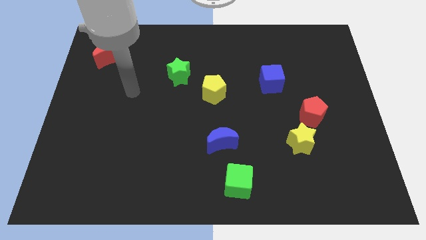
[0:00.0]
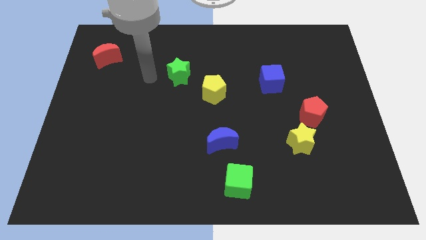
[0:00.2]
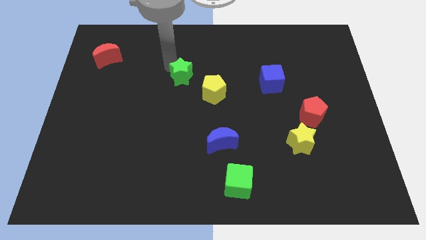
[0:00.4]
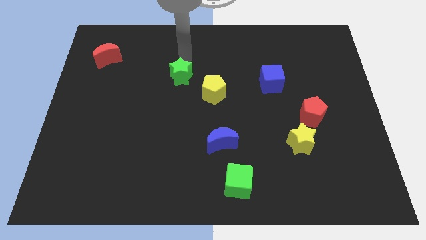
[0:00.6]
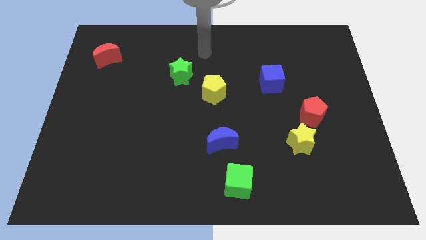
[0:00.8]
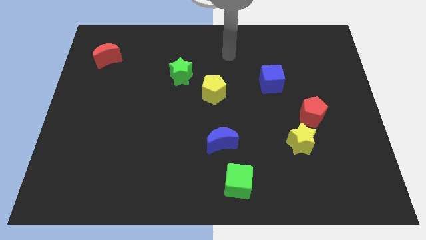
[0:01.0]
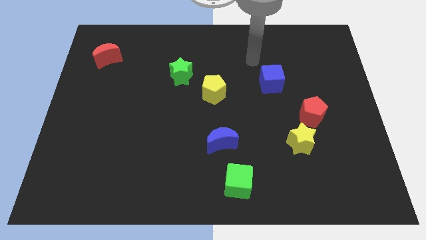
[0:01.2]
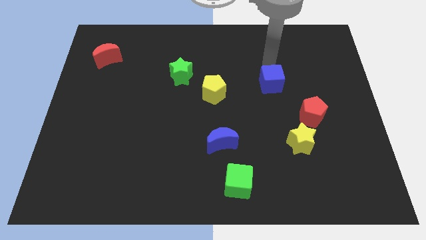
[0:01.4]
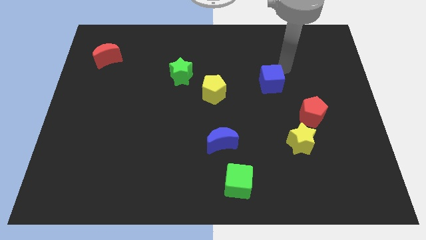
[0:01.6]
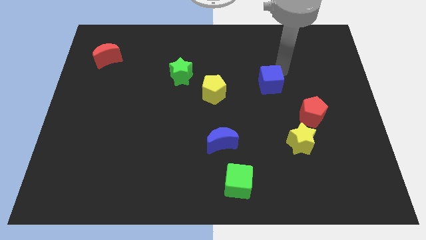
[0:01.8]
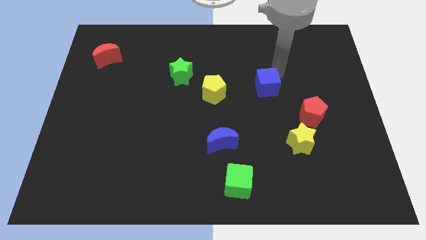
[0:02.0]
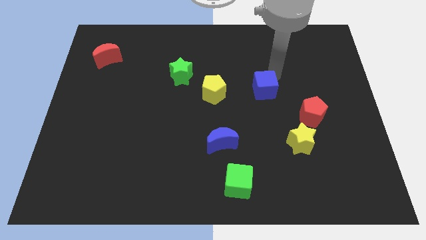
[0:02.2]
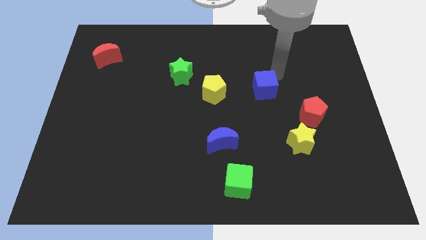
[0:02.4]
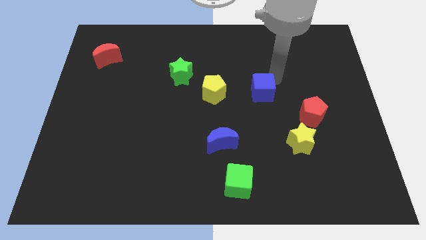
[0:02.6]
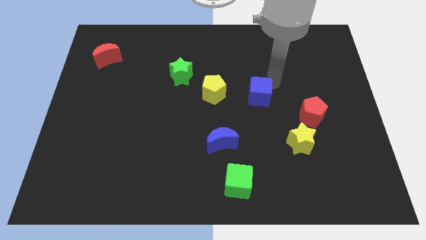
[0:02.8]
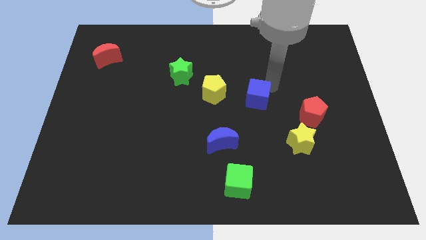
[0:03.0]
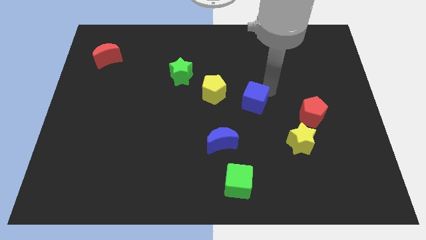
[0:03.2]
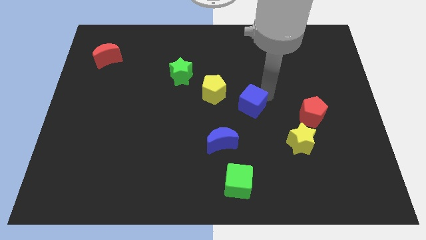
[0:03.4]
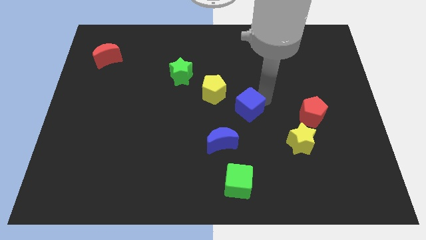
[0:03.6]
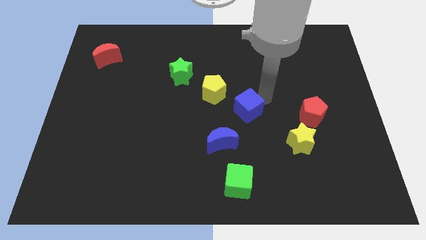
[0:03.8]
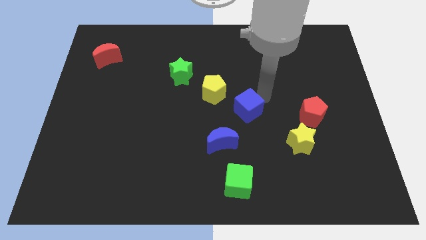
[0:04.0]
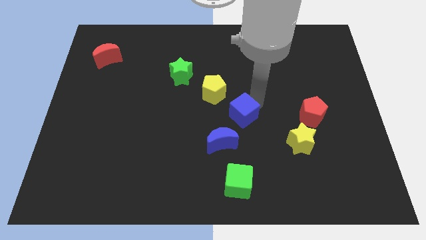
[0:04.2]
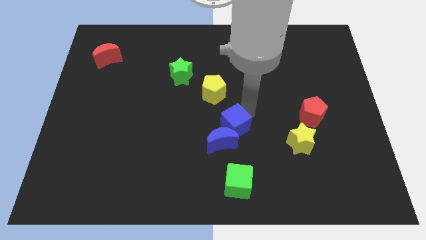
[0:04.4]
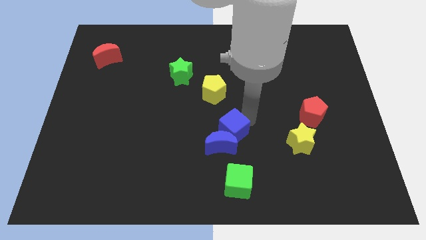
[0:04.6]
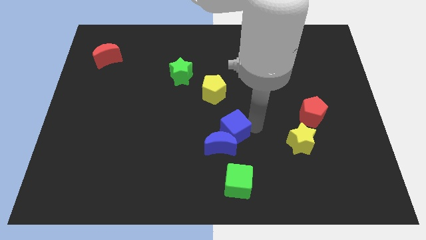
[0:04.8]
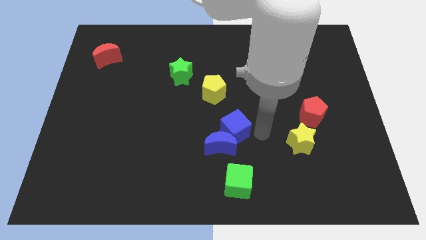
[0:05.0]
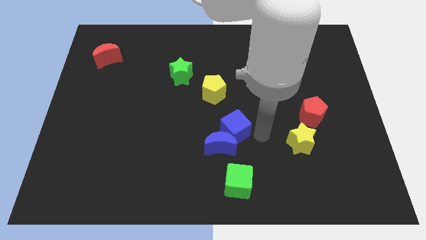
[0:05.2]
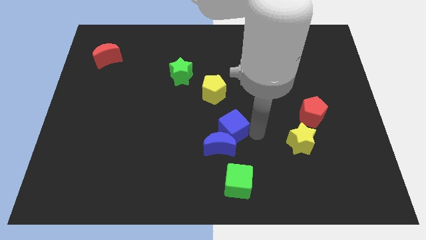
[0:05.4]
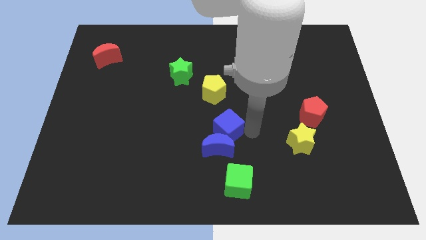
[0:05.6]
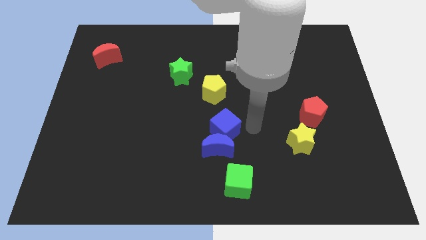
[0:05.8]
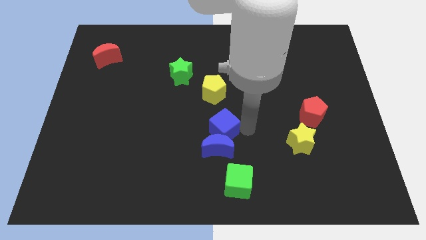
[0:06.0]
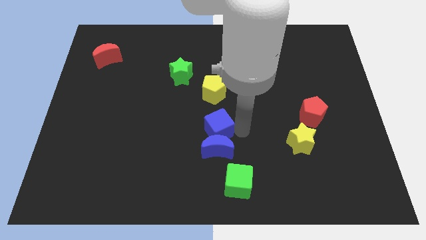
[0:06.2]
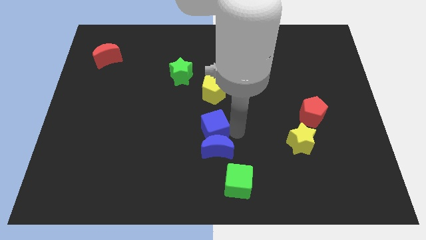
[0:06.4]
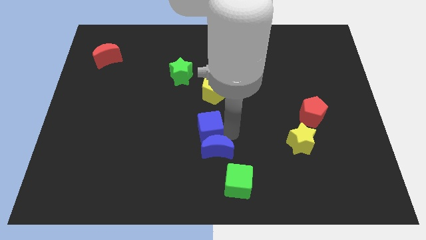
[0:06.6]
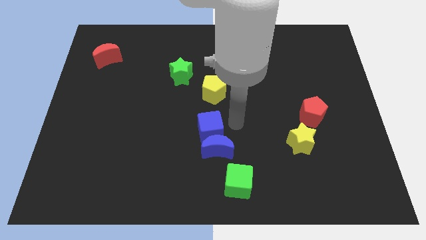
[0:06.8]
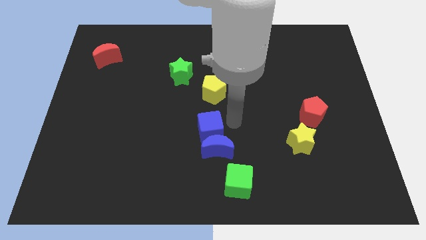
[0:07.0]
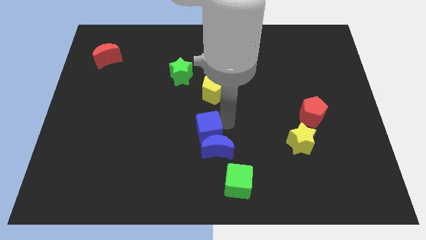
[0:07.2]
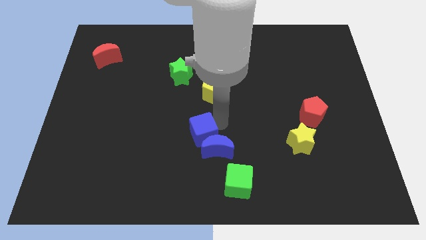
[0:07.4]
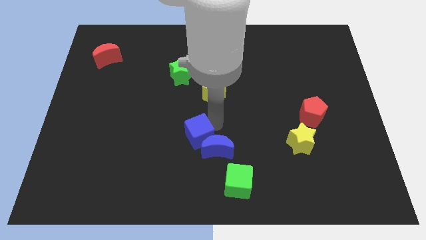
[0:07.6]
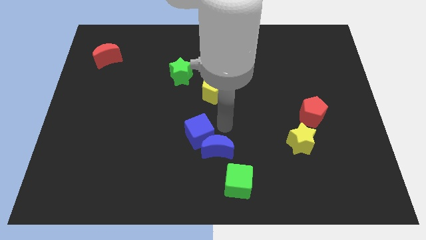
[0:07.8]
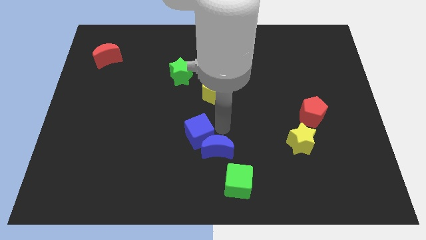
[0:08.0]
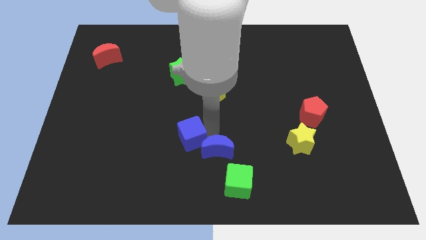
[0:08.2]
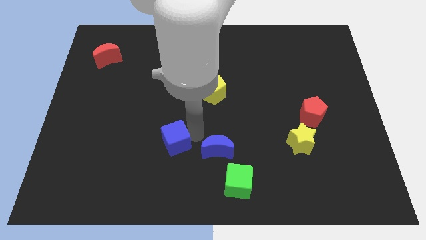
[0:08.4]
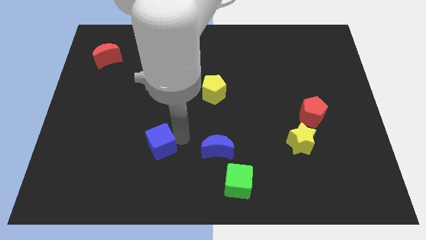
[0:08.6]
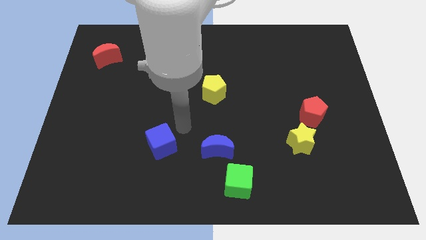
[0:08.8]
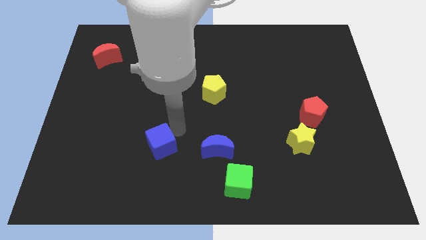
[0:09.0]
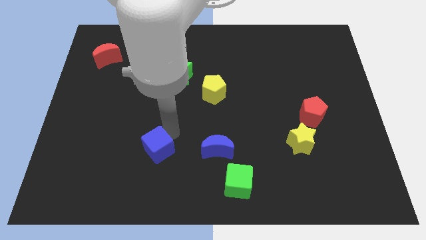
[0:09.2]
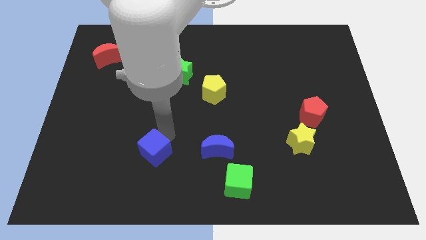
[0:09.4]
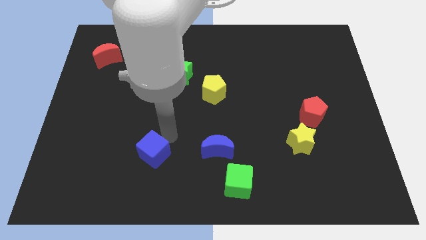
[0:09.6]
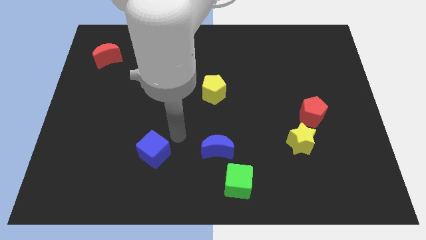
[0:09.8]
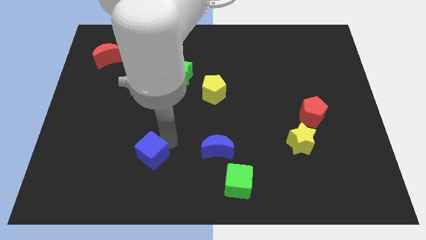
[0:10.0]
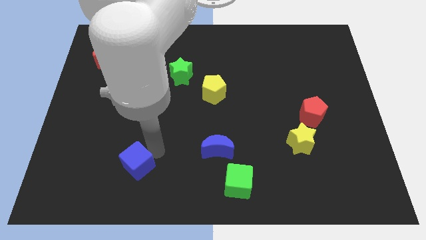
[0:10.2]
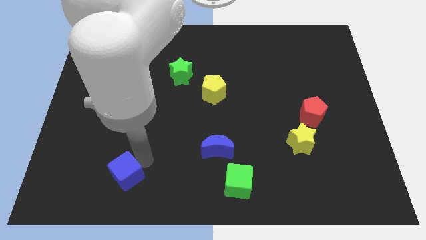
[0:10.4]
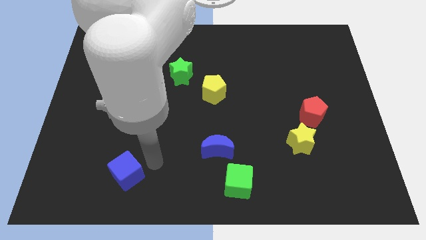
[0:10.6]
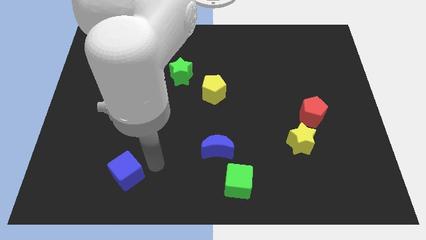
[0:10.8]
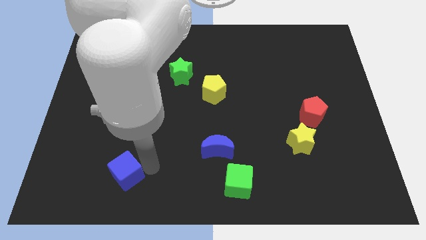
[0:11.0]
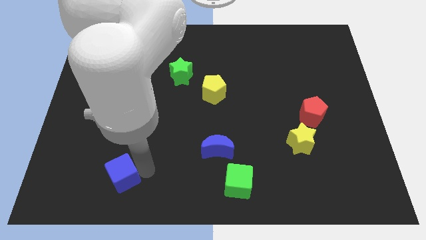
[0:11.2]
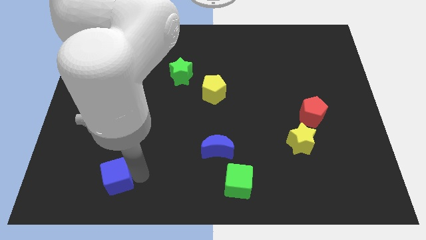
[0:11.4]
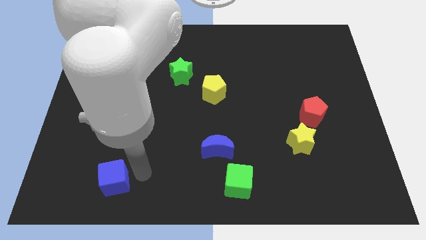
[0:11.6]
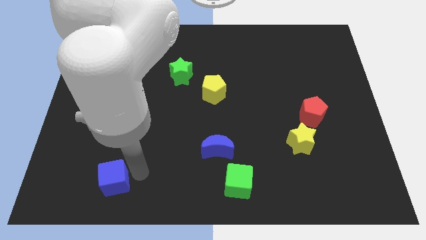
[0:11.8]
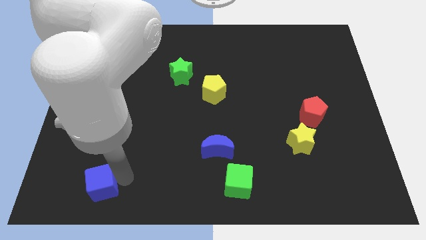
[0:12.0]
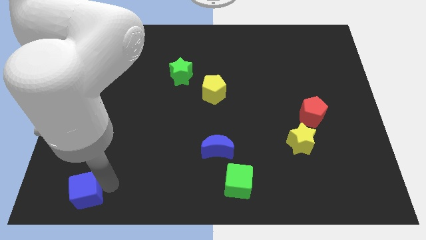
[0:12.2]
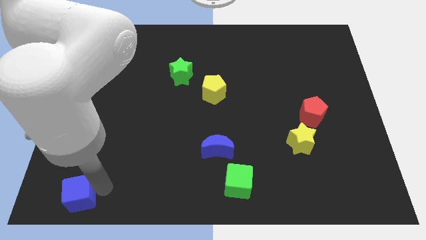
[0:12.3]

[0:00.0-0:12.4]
move the blue cube to the bottom left corner

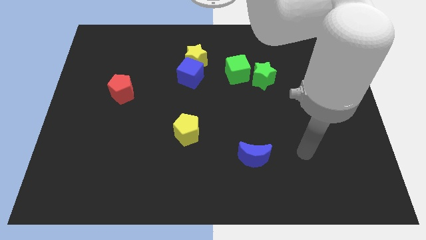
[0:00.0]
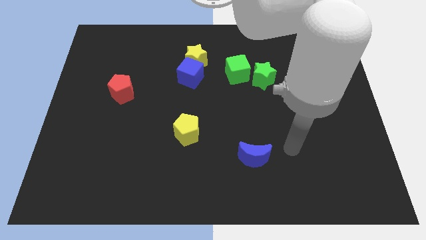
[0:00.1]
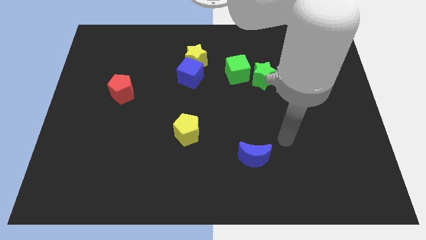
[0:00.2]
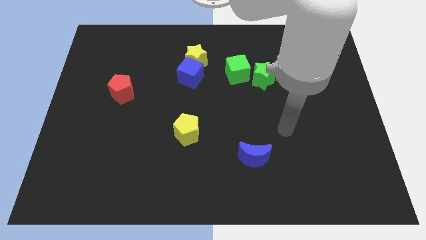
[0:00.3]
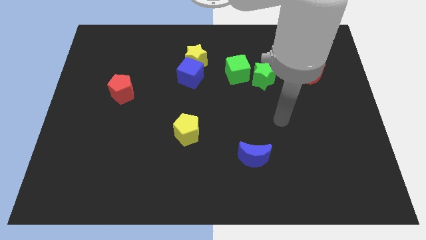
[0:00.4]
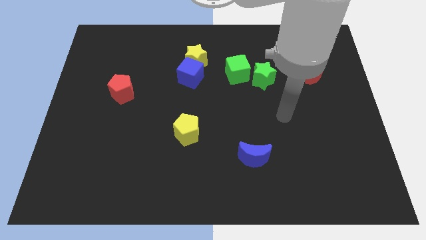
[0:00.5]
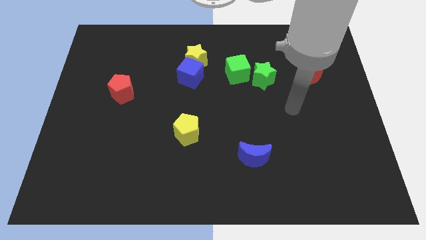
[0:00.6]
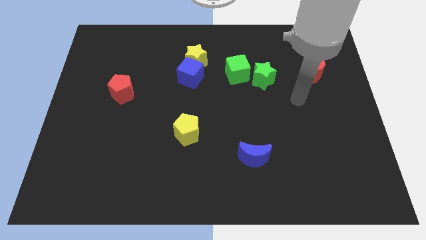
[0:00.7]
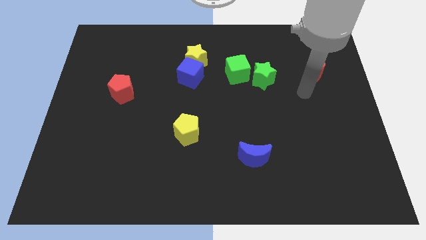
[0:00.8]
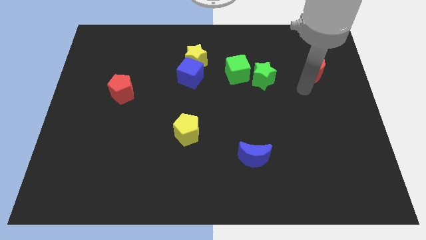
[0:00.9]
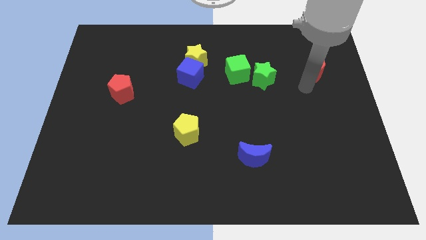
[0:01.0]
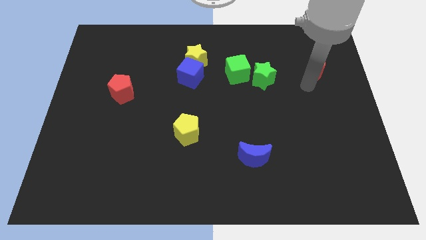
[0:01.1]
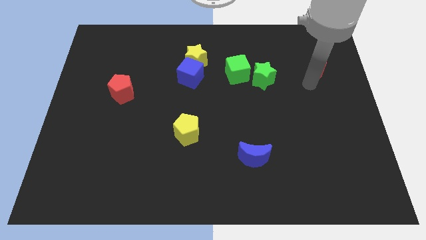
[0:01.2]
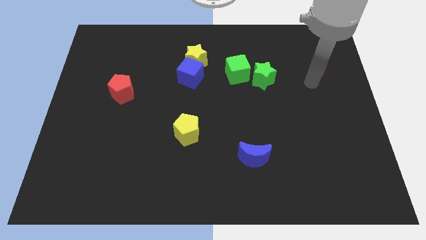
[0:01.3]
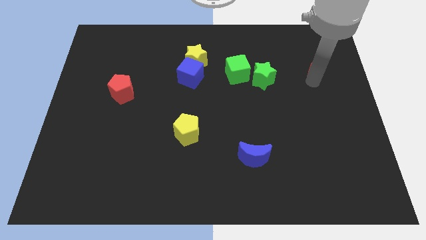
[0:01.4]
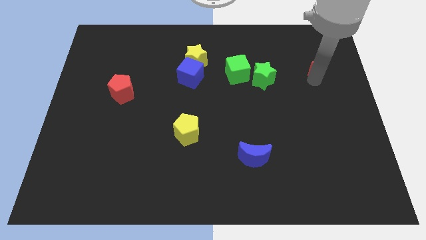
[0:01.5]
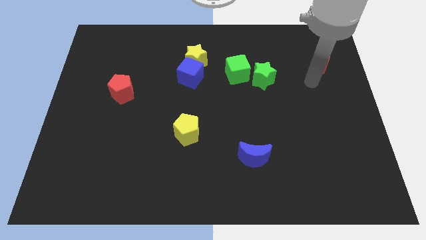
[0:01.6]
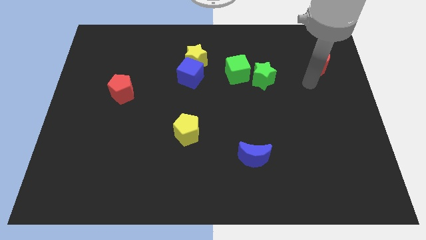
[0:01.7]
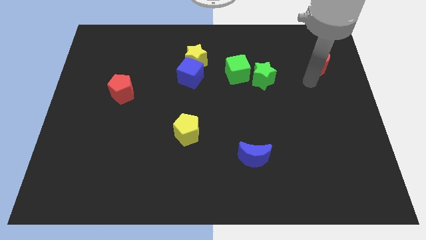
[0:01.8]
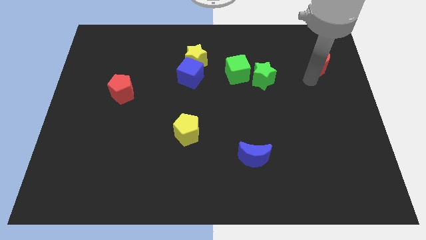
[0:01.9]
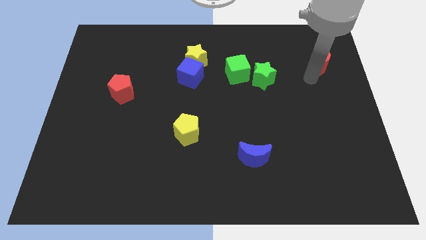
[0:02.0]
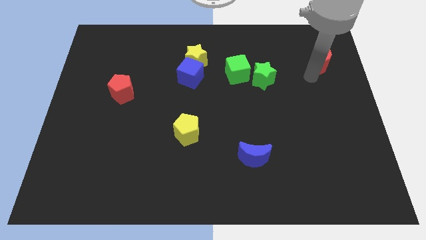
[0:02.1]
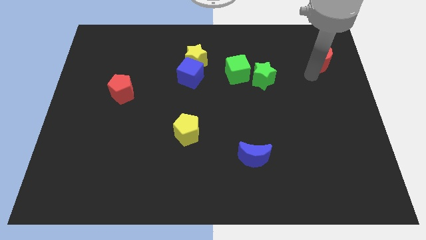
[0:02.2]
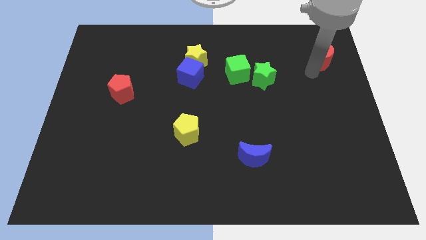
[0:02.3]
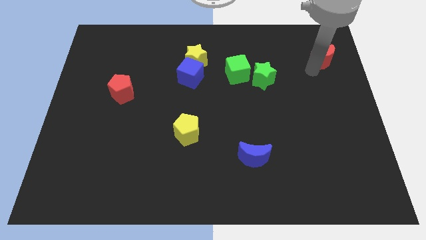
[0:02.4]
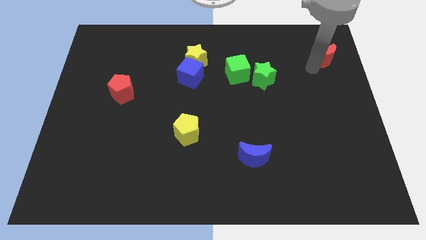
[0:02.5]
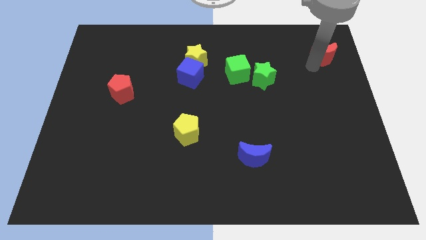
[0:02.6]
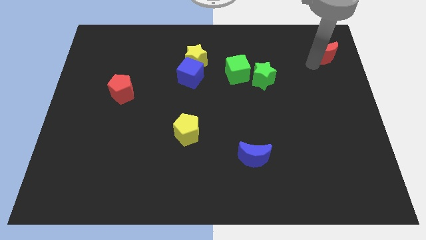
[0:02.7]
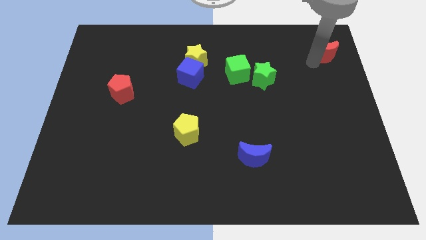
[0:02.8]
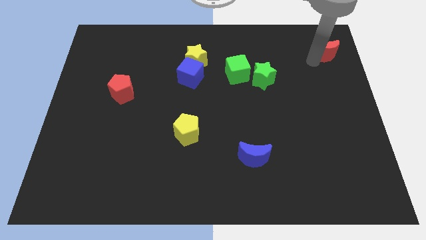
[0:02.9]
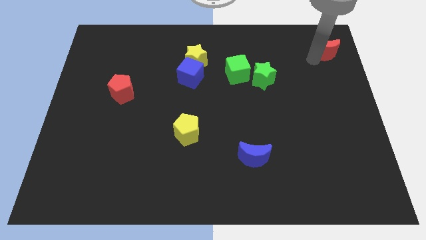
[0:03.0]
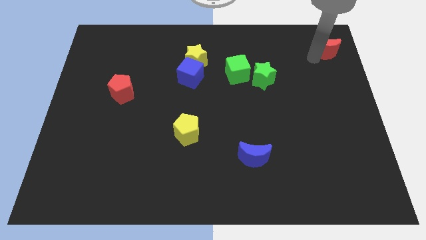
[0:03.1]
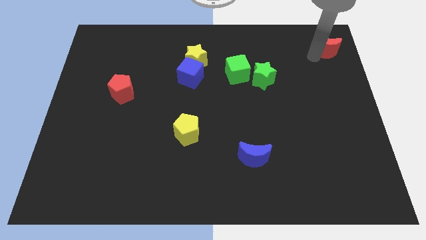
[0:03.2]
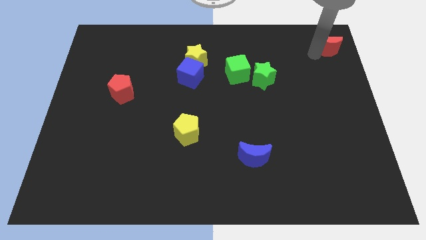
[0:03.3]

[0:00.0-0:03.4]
move the red moon to the top right of the board
